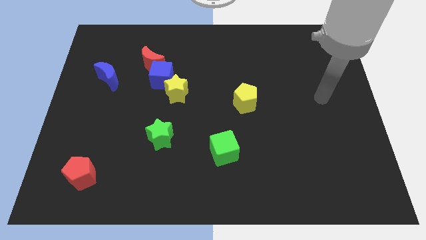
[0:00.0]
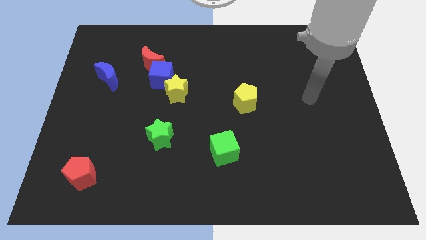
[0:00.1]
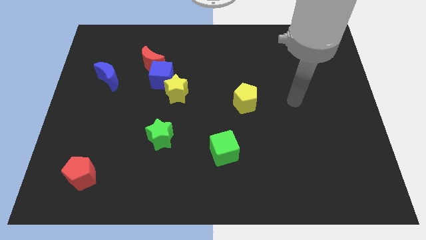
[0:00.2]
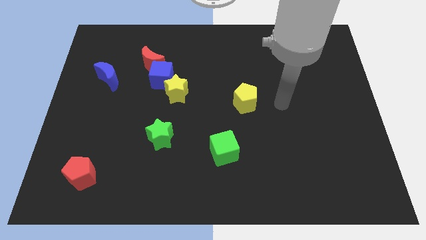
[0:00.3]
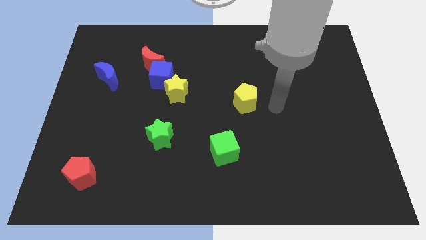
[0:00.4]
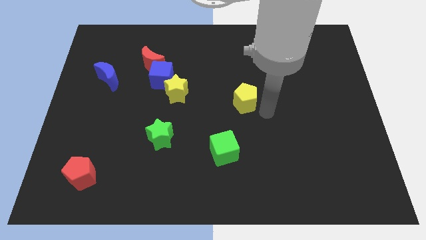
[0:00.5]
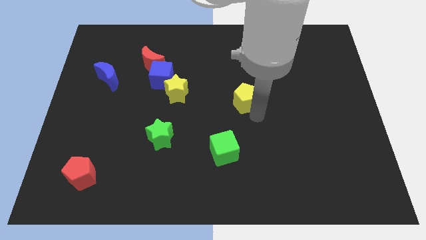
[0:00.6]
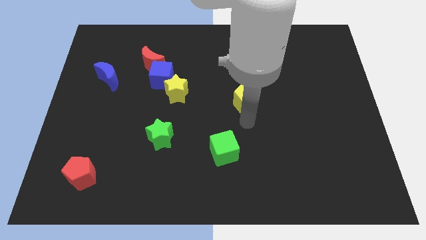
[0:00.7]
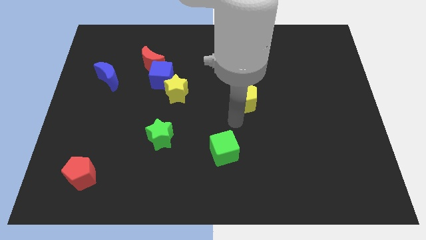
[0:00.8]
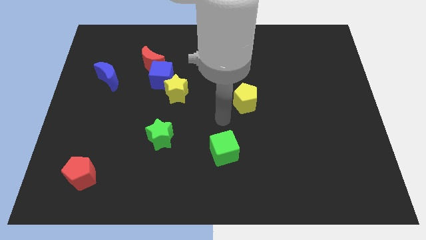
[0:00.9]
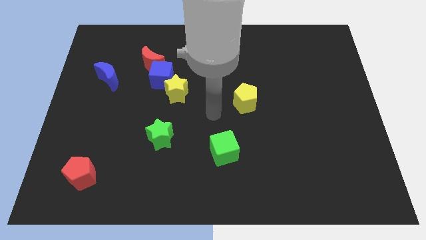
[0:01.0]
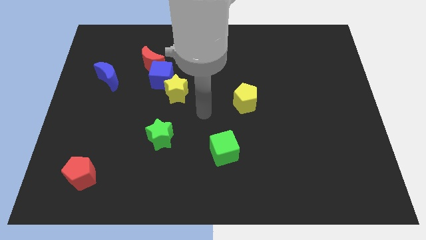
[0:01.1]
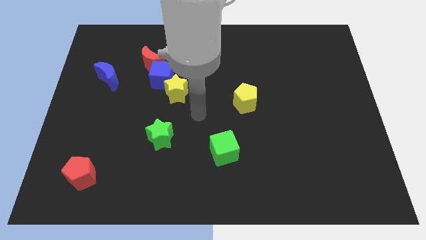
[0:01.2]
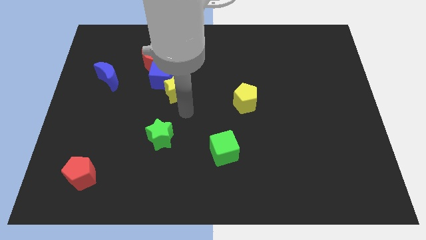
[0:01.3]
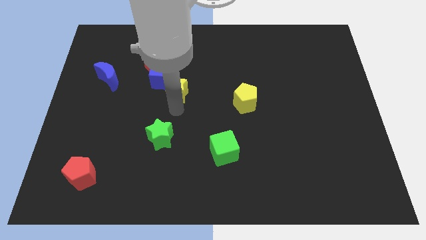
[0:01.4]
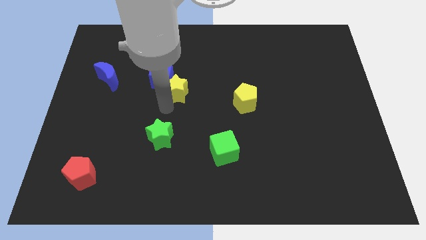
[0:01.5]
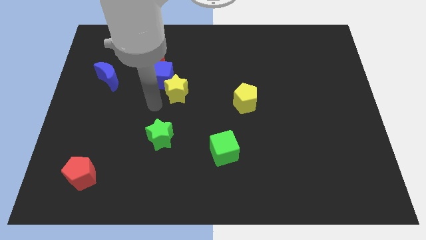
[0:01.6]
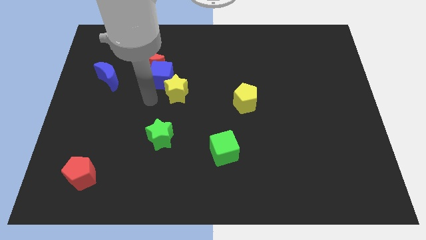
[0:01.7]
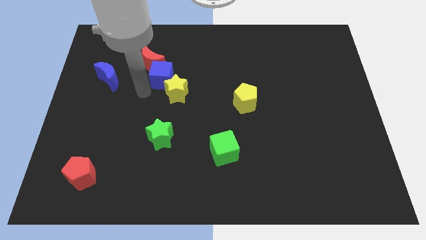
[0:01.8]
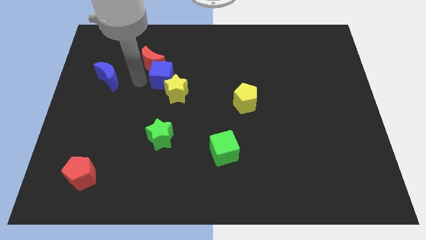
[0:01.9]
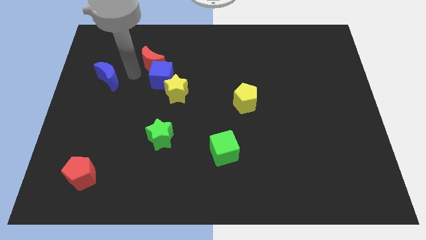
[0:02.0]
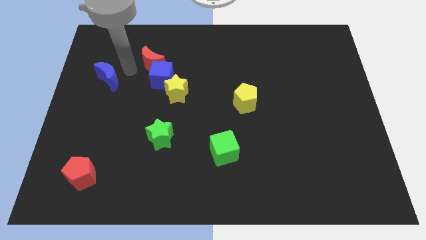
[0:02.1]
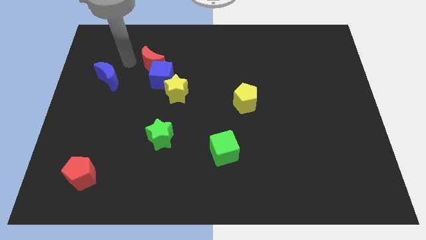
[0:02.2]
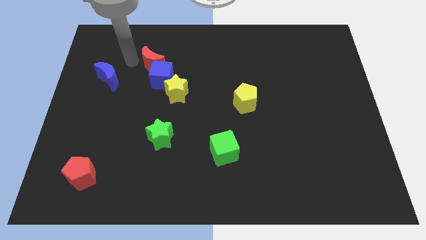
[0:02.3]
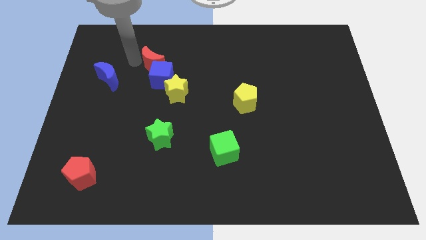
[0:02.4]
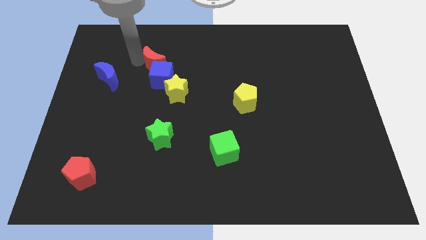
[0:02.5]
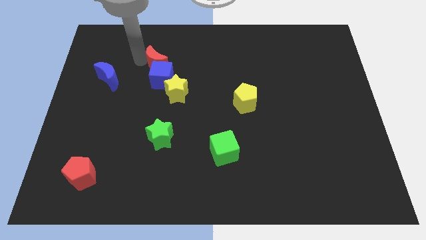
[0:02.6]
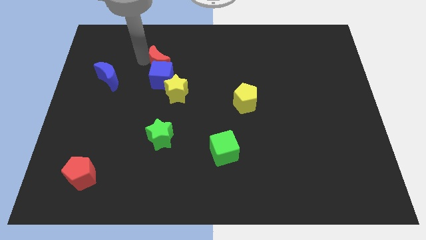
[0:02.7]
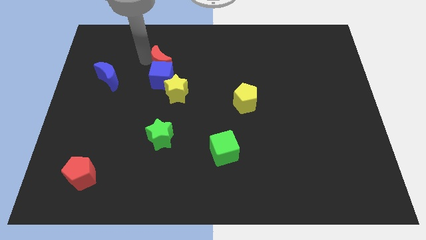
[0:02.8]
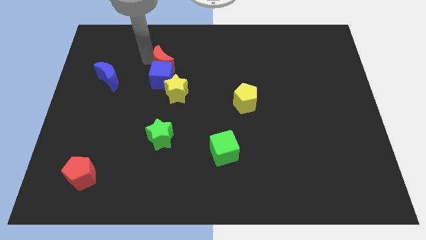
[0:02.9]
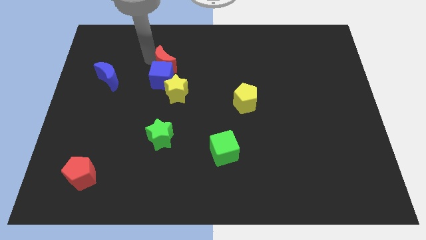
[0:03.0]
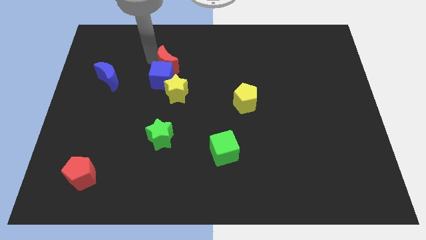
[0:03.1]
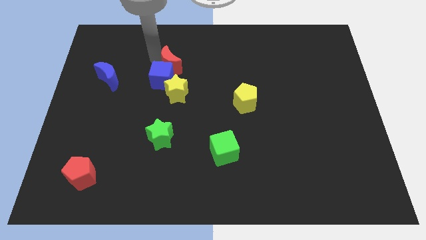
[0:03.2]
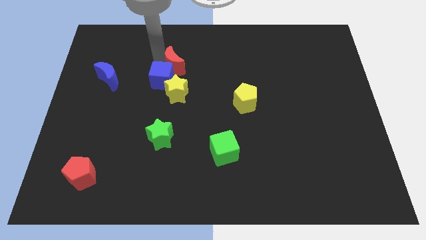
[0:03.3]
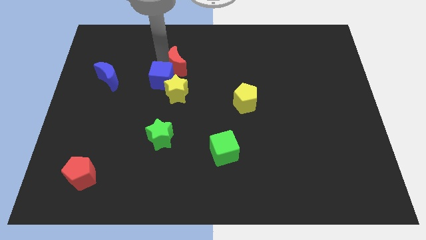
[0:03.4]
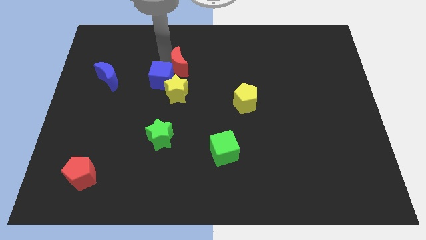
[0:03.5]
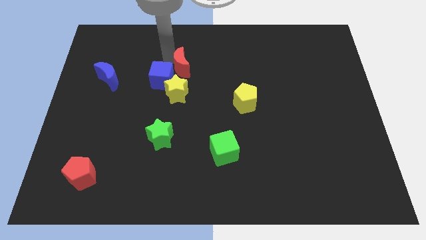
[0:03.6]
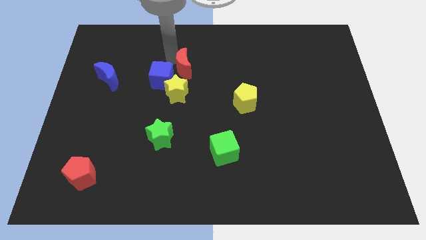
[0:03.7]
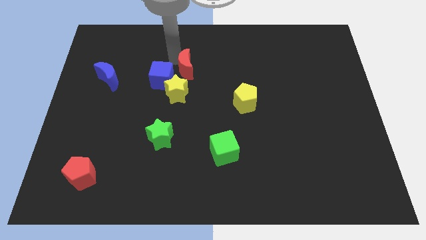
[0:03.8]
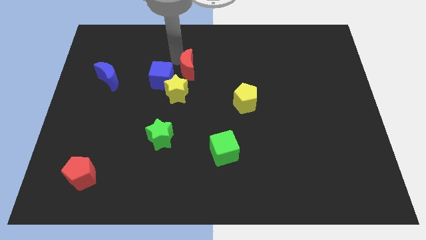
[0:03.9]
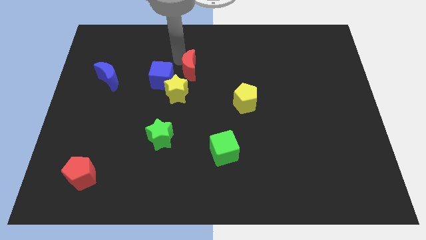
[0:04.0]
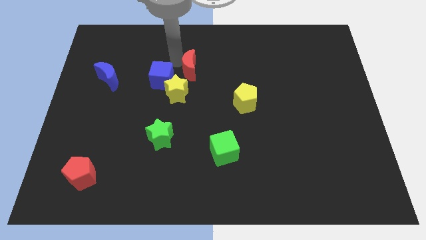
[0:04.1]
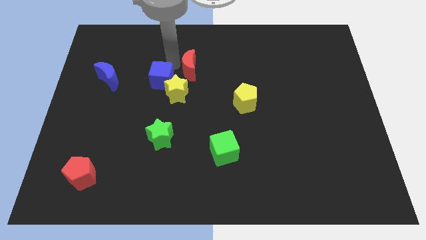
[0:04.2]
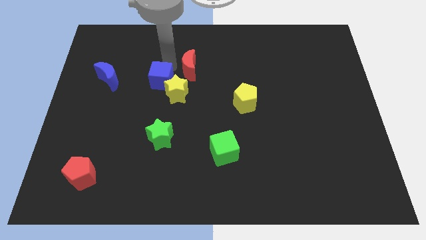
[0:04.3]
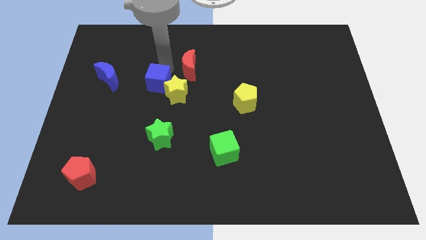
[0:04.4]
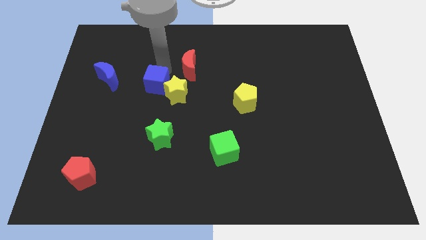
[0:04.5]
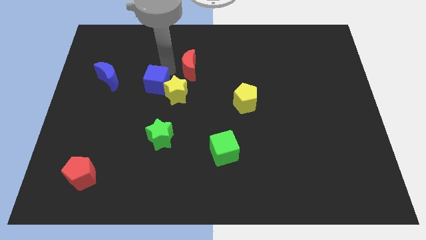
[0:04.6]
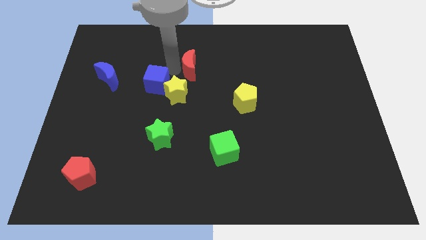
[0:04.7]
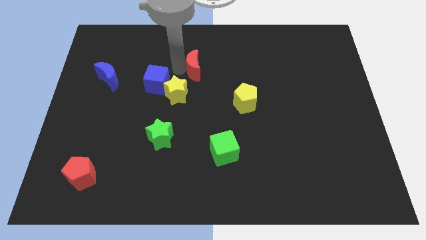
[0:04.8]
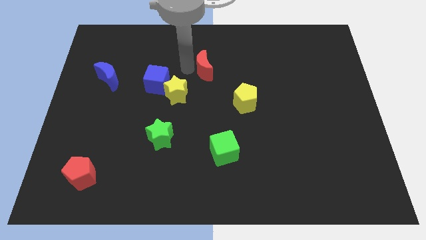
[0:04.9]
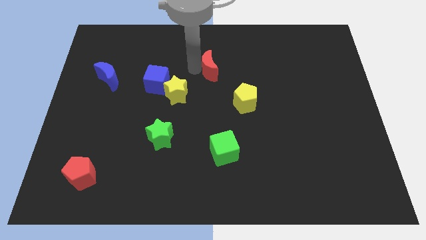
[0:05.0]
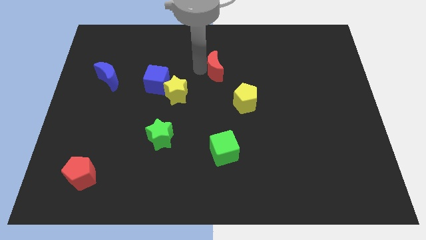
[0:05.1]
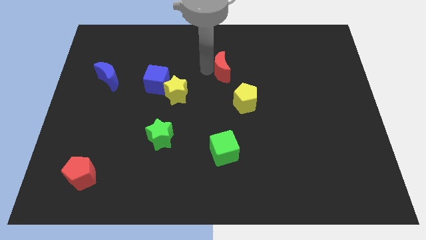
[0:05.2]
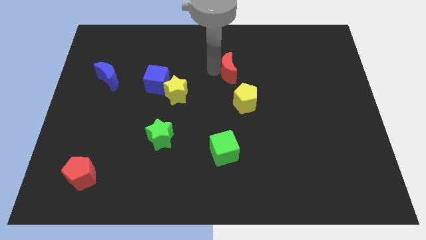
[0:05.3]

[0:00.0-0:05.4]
slide the red moon to the top side of the yellow pentagon

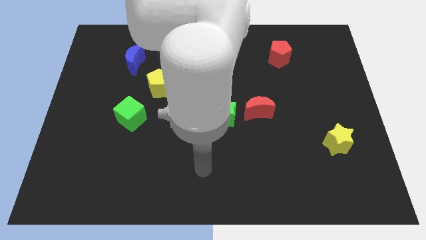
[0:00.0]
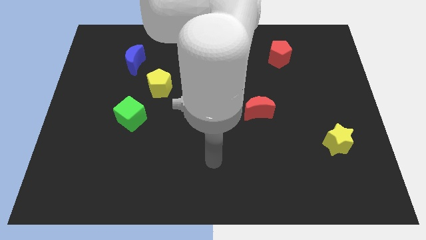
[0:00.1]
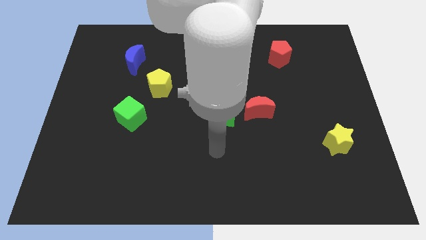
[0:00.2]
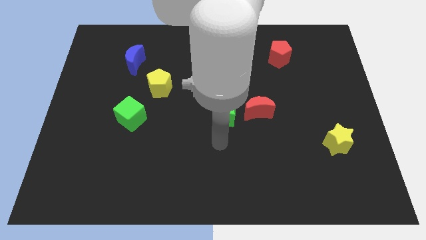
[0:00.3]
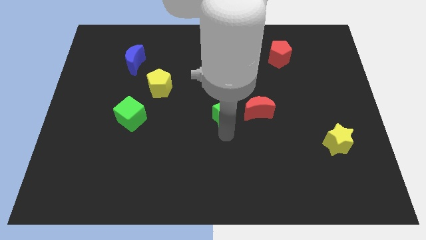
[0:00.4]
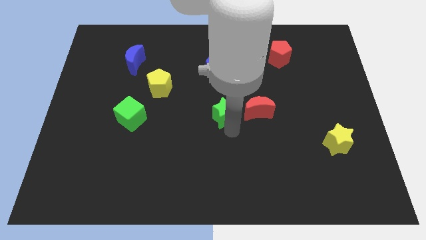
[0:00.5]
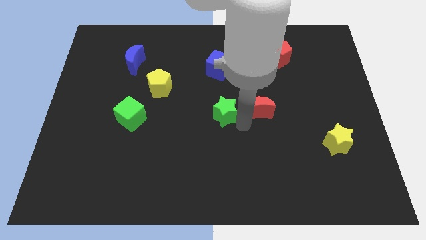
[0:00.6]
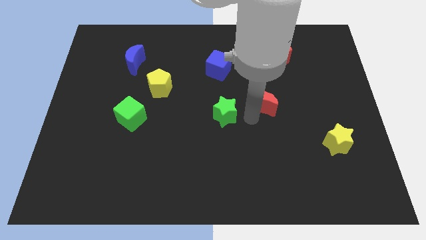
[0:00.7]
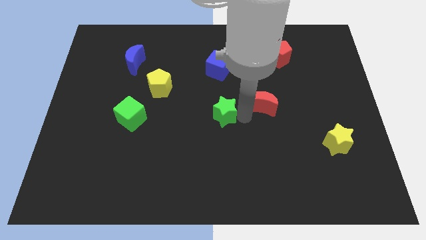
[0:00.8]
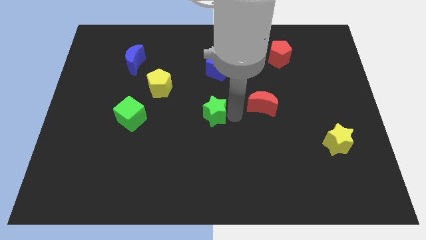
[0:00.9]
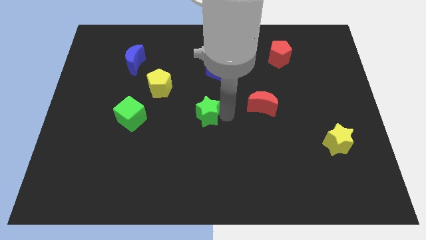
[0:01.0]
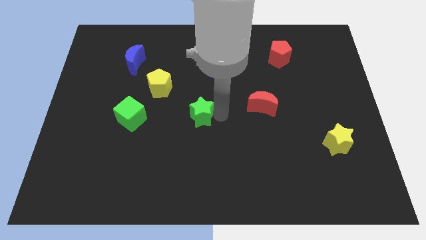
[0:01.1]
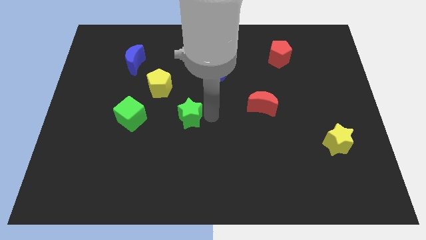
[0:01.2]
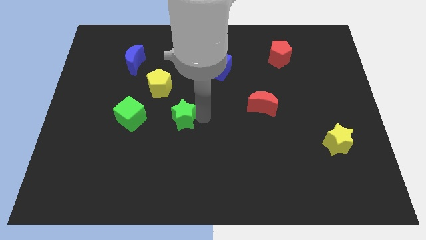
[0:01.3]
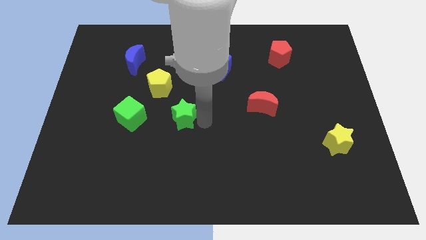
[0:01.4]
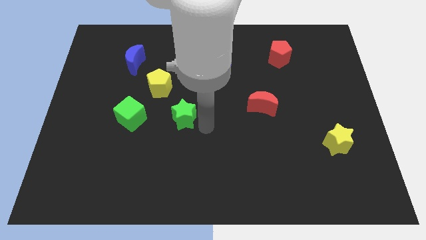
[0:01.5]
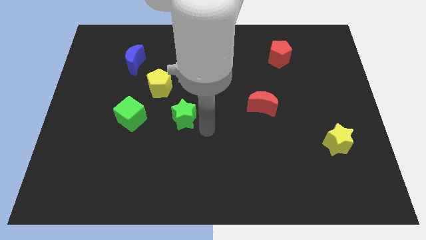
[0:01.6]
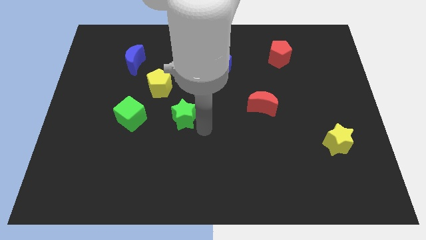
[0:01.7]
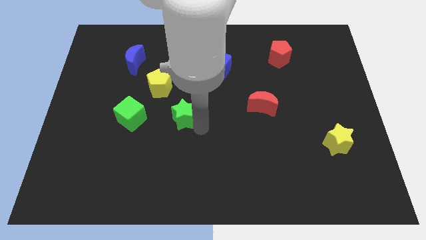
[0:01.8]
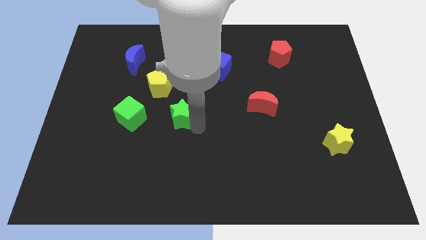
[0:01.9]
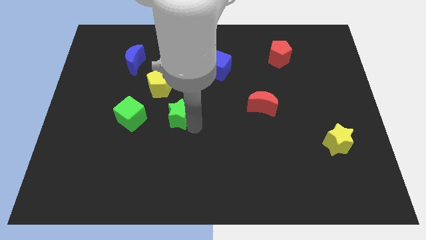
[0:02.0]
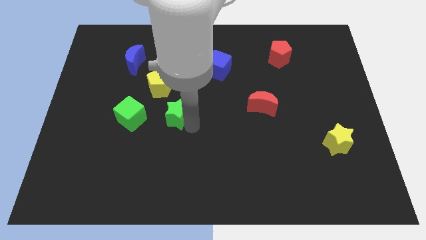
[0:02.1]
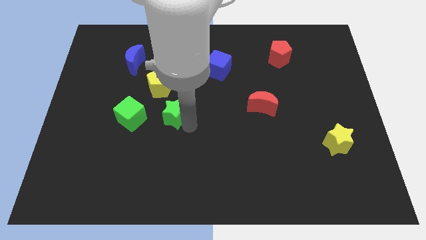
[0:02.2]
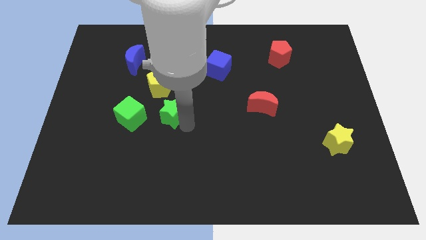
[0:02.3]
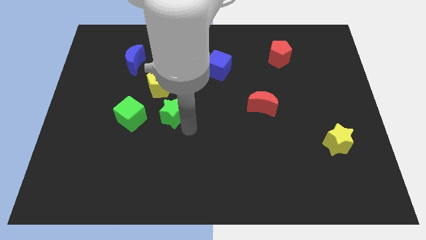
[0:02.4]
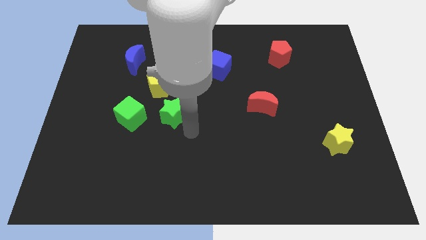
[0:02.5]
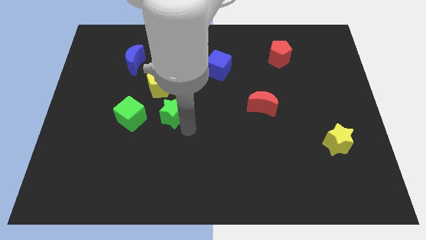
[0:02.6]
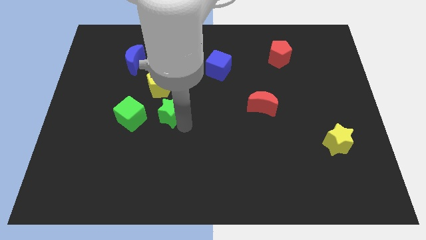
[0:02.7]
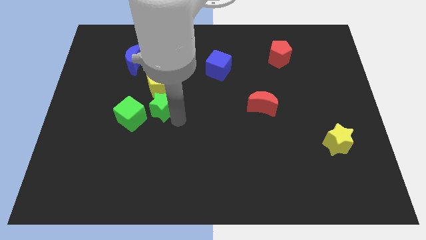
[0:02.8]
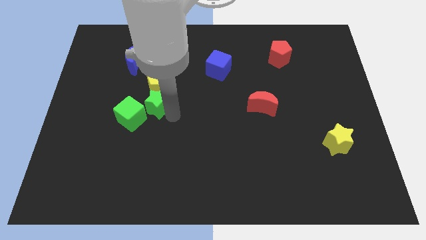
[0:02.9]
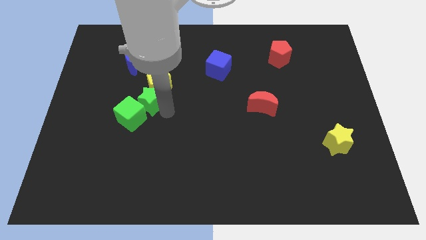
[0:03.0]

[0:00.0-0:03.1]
move the green star to the top of the green cube
